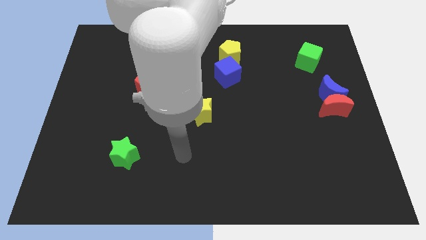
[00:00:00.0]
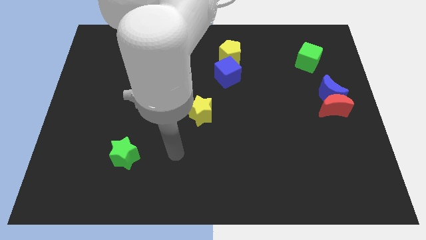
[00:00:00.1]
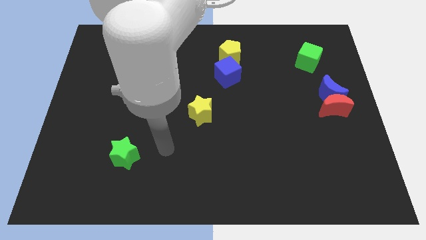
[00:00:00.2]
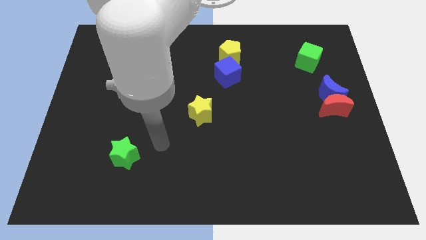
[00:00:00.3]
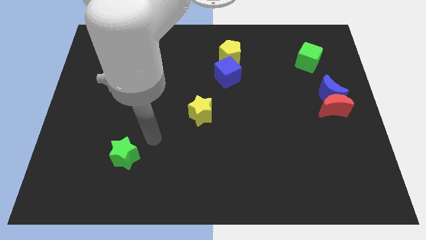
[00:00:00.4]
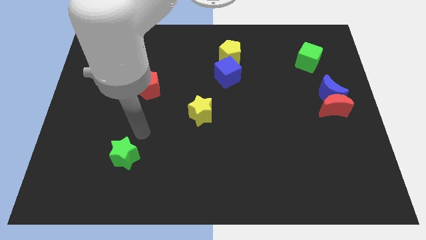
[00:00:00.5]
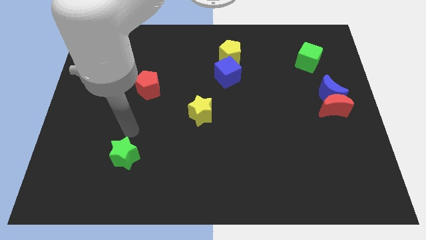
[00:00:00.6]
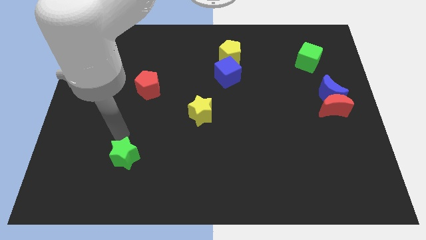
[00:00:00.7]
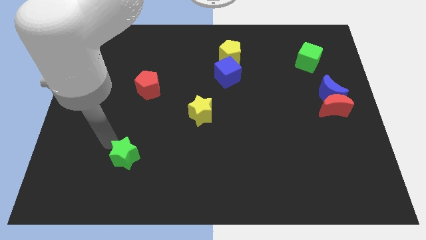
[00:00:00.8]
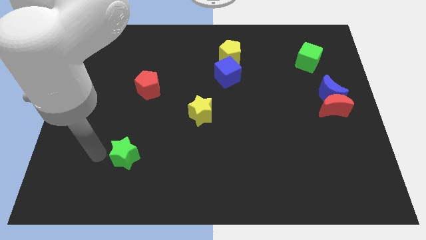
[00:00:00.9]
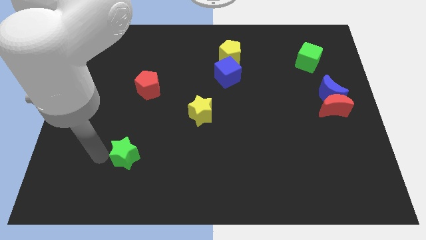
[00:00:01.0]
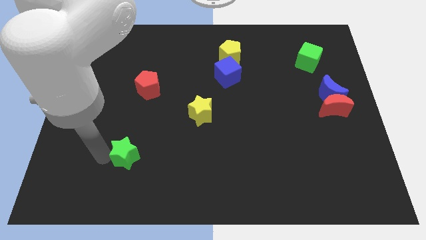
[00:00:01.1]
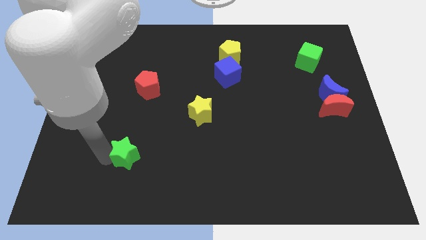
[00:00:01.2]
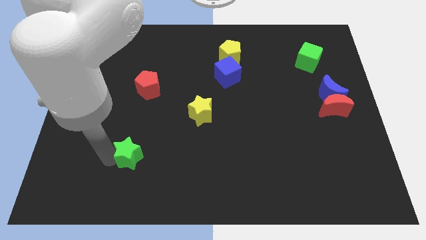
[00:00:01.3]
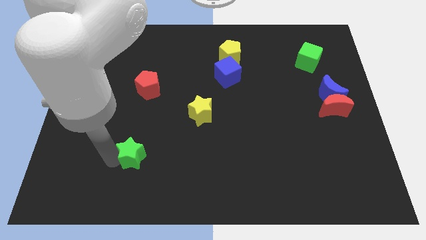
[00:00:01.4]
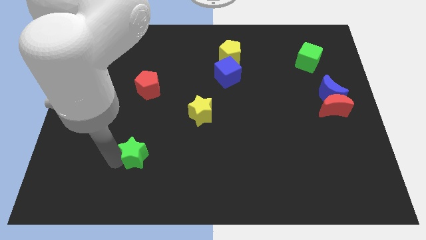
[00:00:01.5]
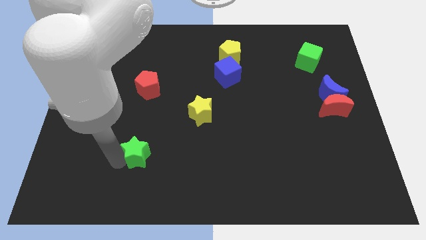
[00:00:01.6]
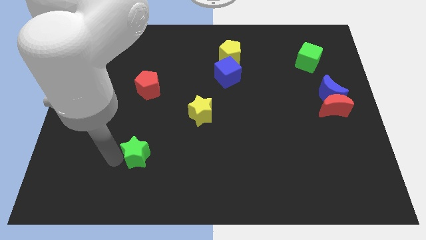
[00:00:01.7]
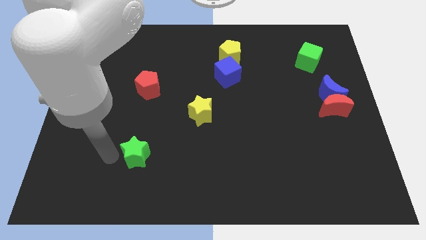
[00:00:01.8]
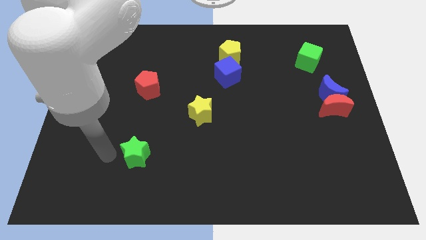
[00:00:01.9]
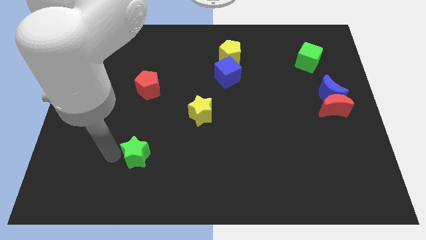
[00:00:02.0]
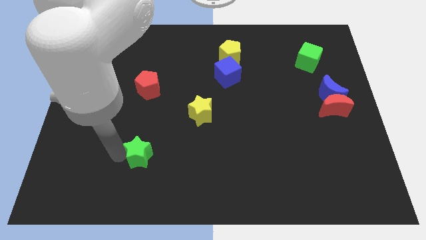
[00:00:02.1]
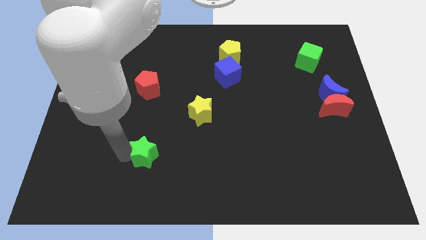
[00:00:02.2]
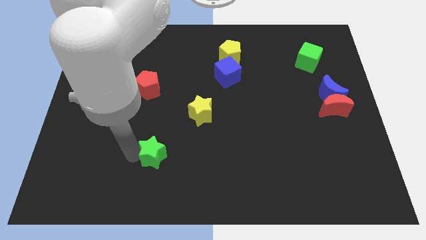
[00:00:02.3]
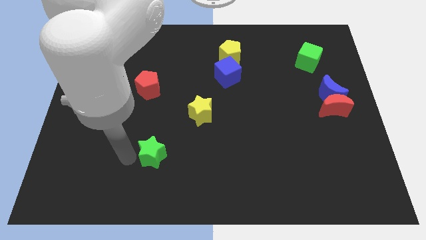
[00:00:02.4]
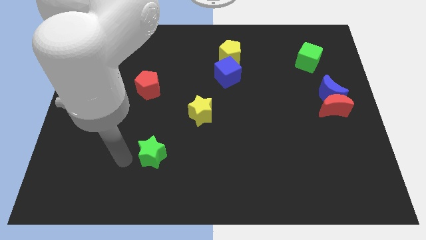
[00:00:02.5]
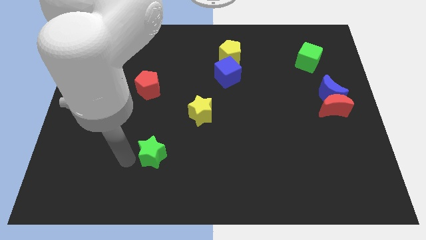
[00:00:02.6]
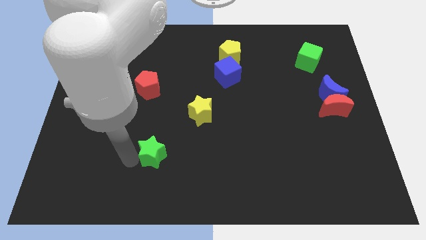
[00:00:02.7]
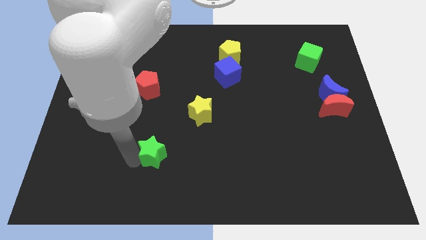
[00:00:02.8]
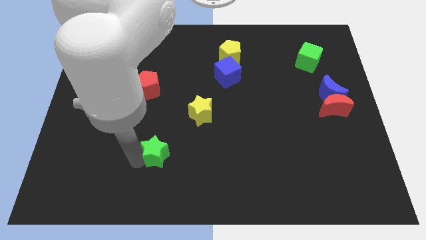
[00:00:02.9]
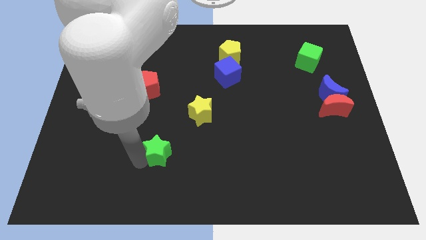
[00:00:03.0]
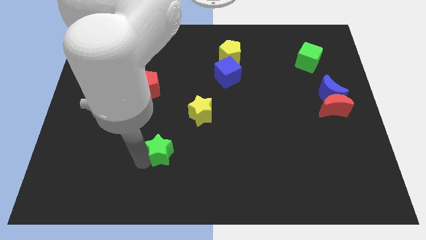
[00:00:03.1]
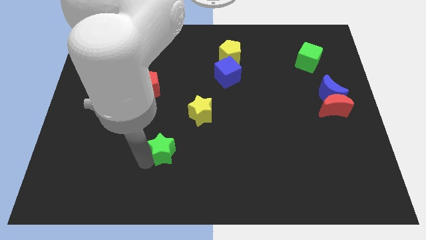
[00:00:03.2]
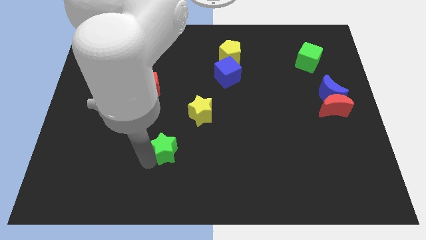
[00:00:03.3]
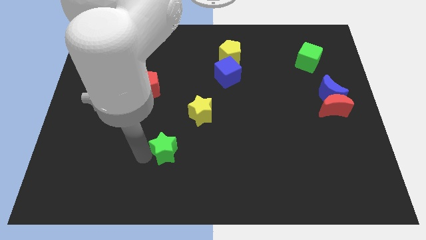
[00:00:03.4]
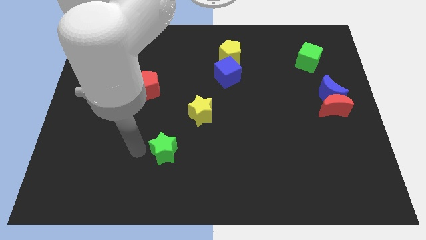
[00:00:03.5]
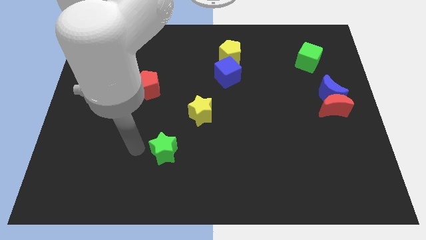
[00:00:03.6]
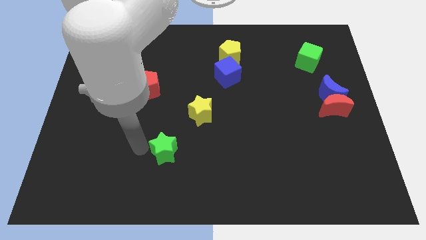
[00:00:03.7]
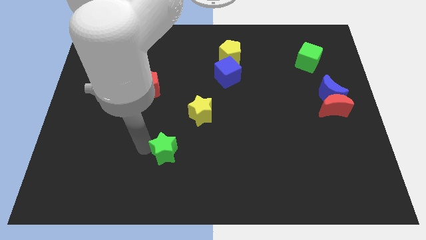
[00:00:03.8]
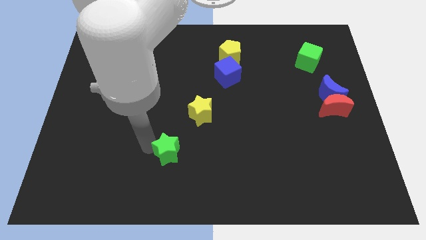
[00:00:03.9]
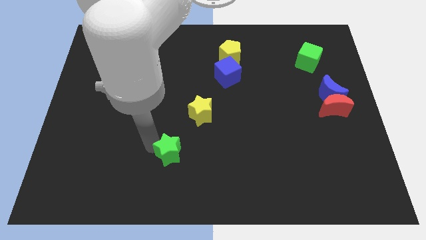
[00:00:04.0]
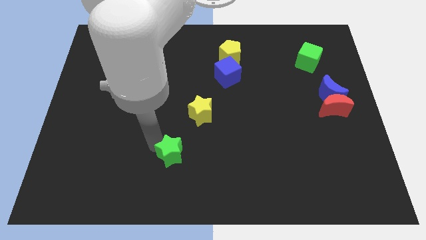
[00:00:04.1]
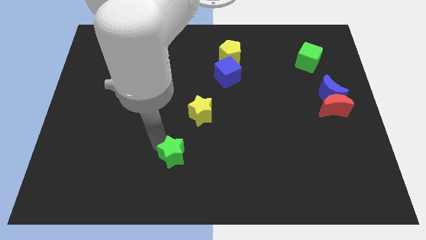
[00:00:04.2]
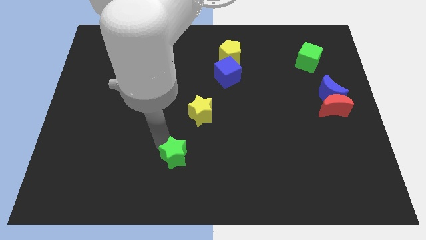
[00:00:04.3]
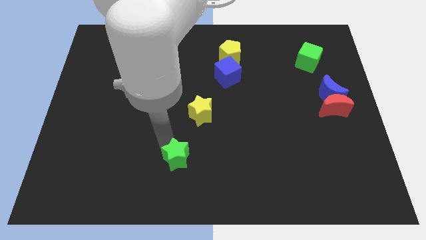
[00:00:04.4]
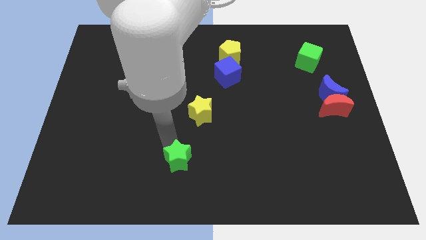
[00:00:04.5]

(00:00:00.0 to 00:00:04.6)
push the green star to the bottom of the yellow star

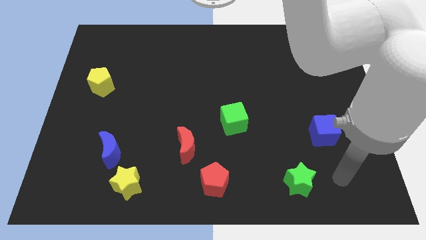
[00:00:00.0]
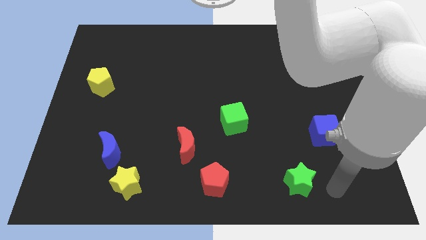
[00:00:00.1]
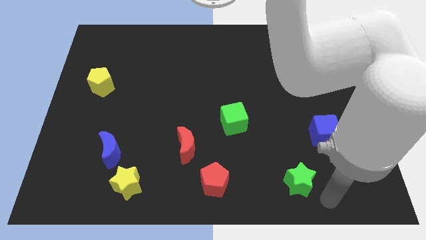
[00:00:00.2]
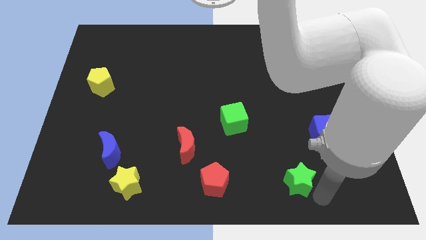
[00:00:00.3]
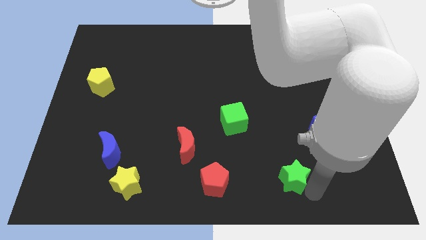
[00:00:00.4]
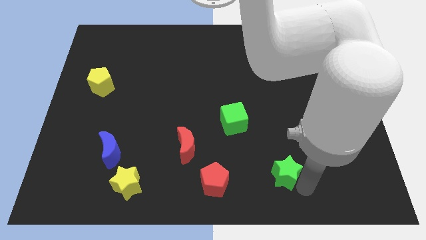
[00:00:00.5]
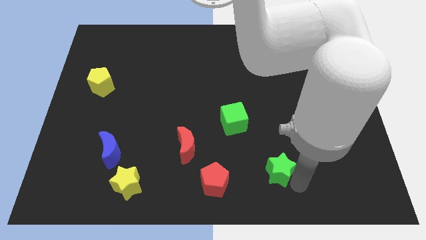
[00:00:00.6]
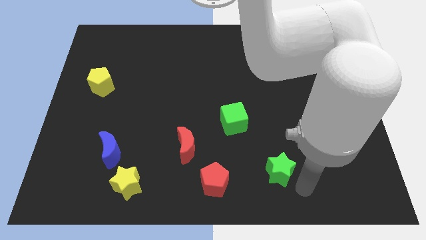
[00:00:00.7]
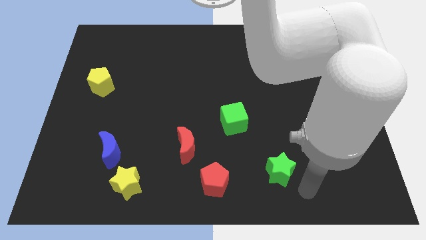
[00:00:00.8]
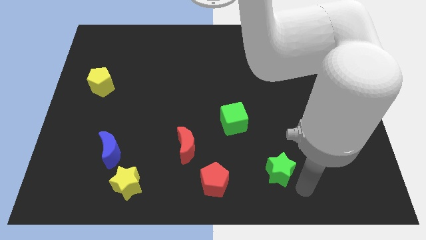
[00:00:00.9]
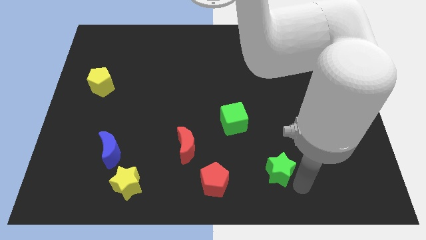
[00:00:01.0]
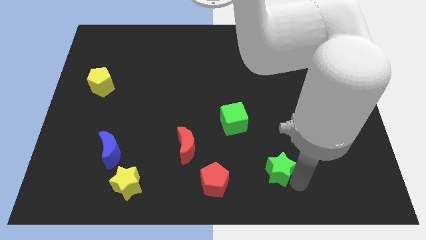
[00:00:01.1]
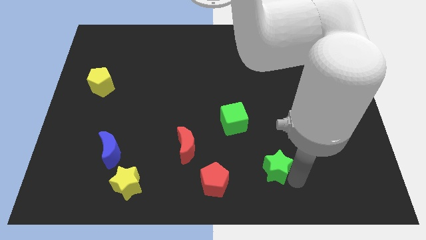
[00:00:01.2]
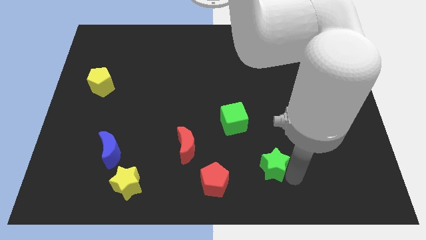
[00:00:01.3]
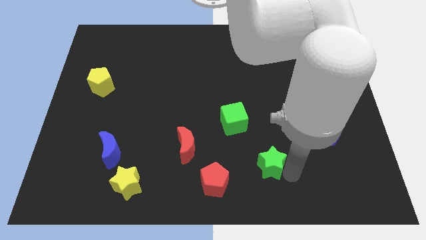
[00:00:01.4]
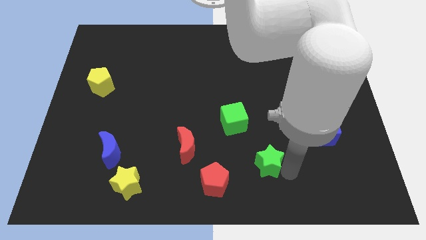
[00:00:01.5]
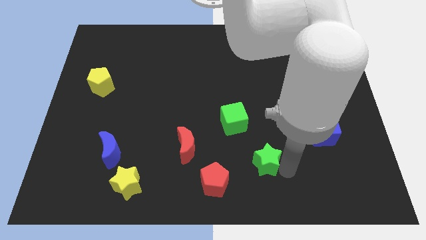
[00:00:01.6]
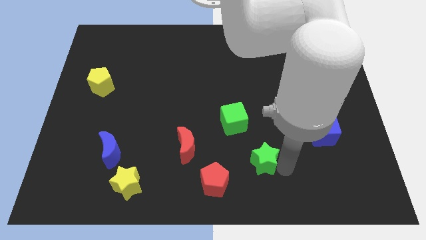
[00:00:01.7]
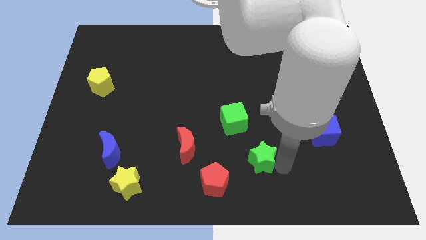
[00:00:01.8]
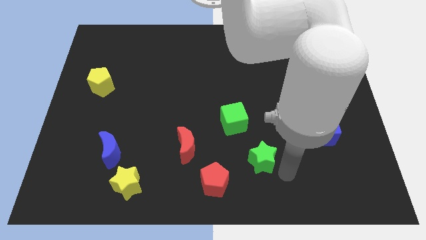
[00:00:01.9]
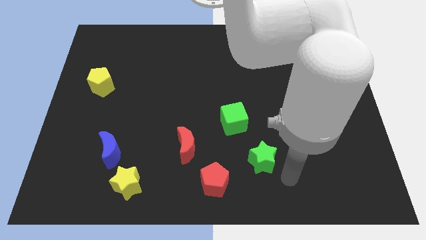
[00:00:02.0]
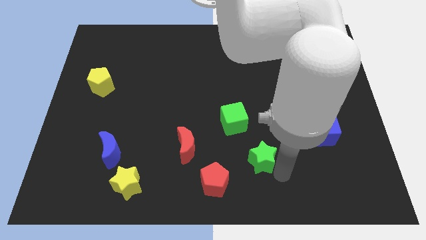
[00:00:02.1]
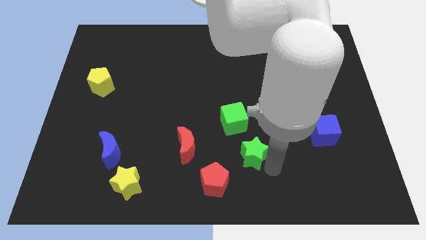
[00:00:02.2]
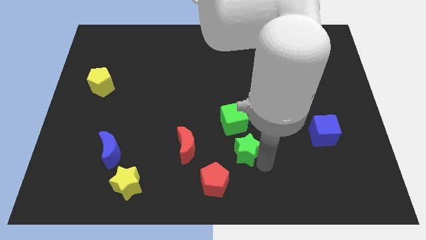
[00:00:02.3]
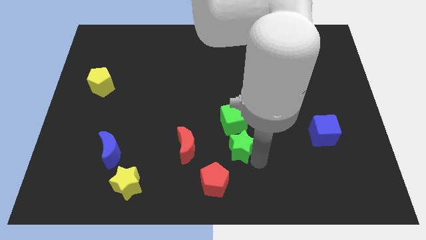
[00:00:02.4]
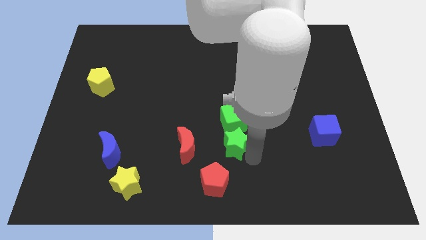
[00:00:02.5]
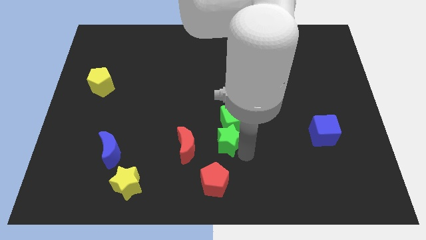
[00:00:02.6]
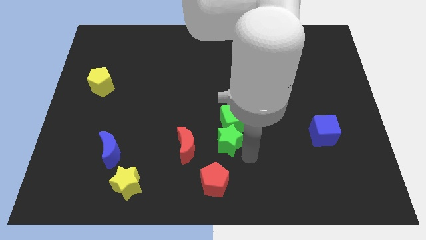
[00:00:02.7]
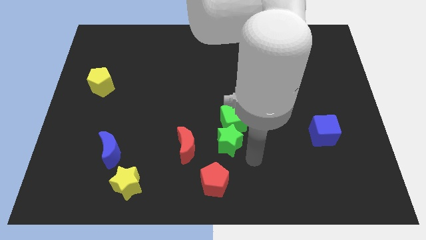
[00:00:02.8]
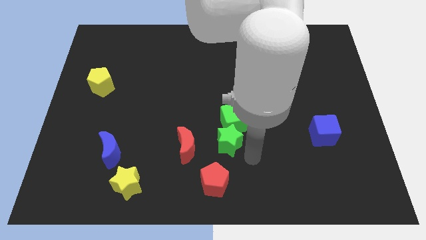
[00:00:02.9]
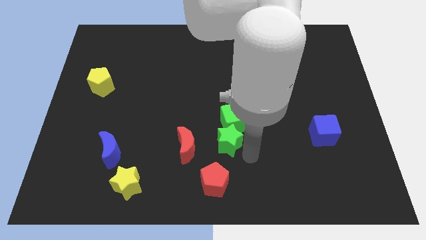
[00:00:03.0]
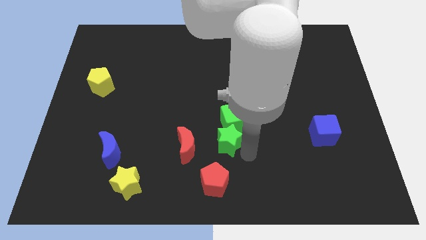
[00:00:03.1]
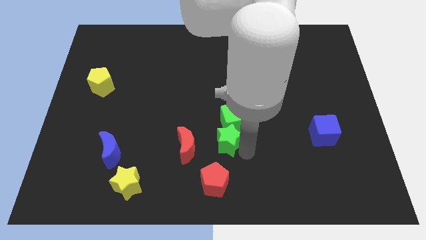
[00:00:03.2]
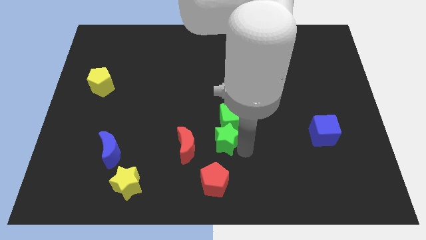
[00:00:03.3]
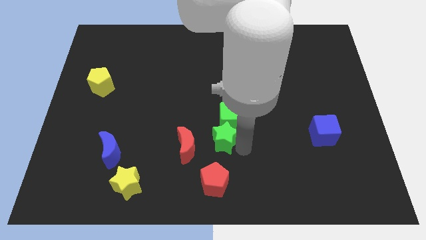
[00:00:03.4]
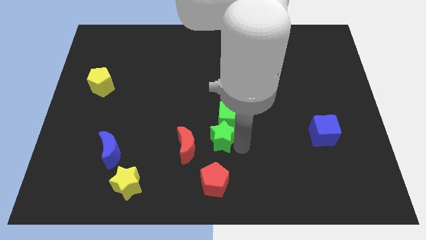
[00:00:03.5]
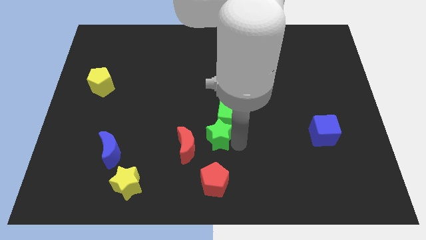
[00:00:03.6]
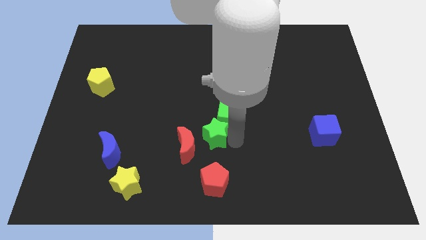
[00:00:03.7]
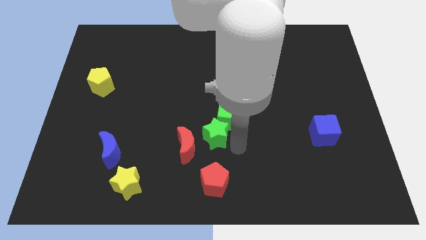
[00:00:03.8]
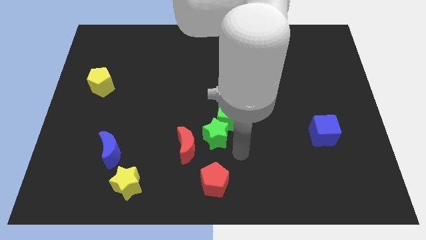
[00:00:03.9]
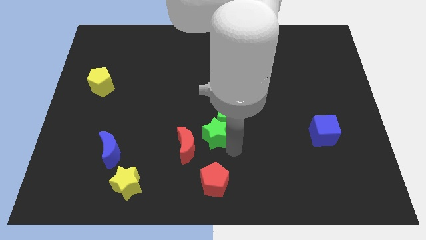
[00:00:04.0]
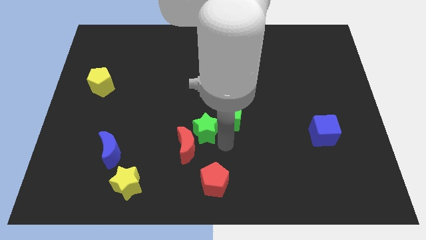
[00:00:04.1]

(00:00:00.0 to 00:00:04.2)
push the green star to the left side of the green cube
